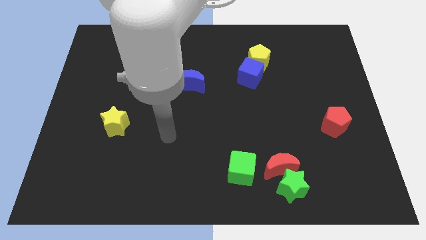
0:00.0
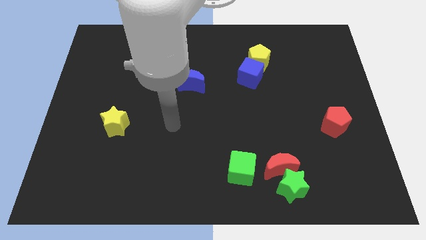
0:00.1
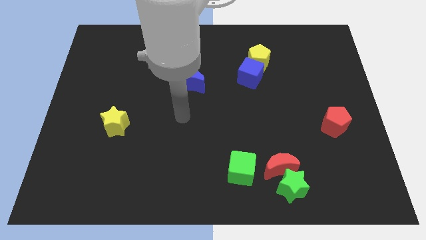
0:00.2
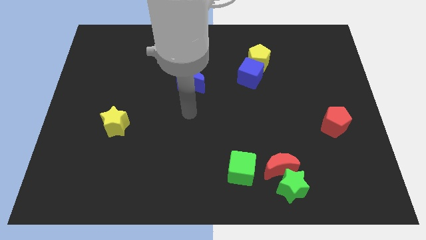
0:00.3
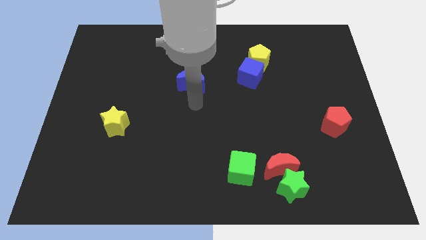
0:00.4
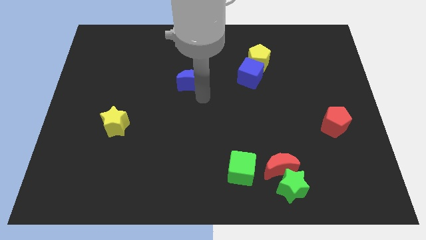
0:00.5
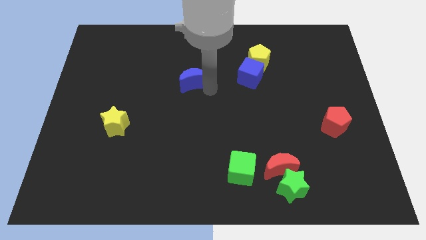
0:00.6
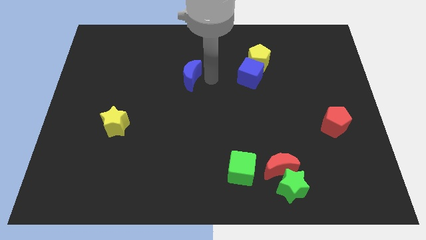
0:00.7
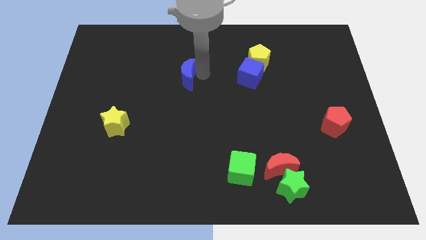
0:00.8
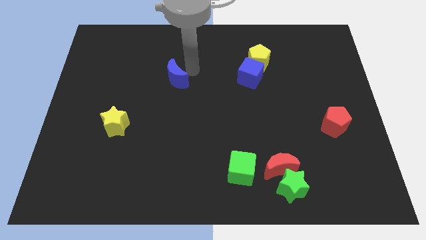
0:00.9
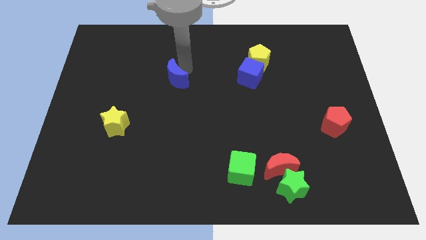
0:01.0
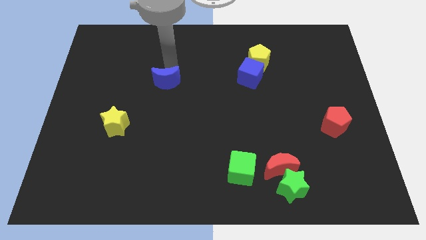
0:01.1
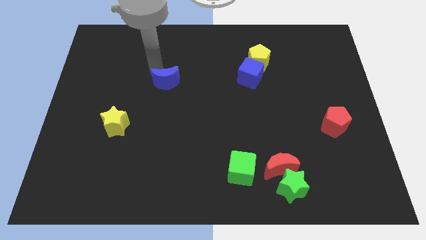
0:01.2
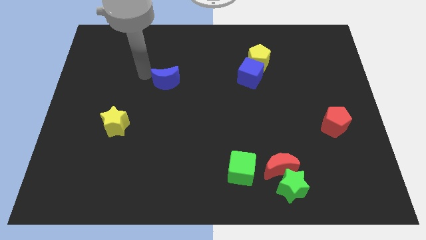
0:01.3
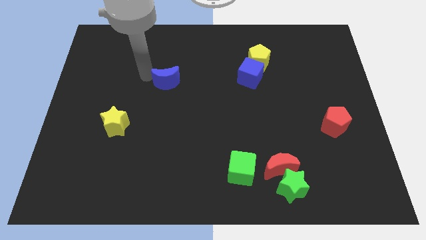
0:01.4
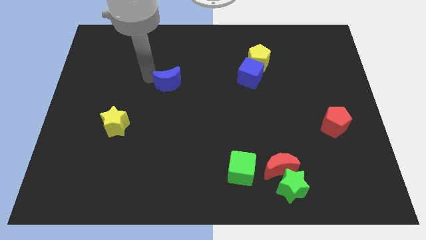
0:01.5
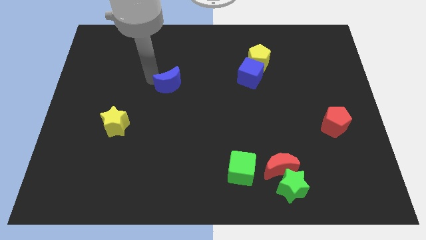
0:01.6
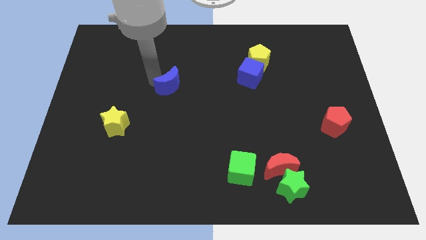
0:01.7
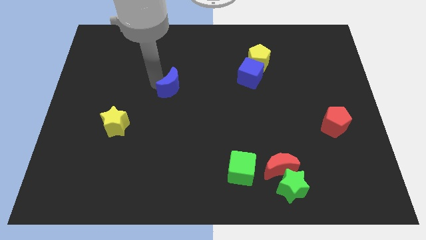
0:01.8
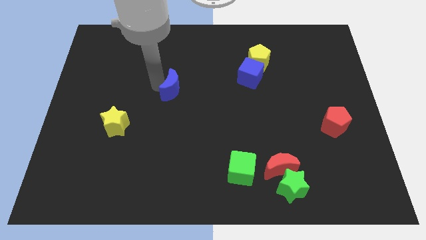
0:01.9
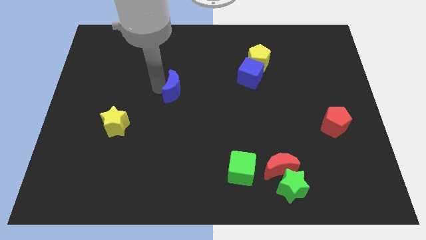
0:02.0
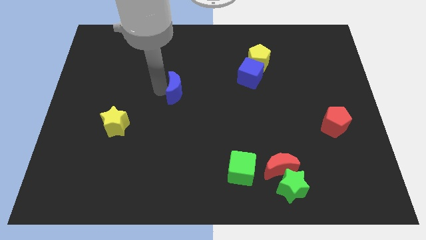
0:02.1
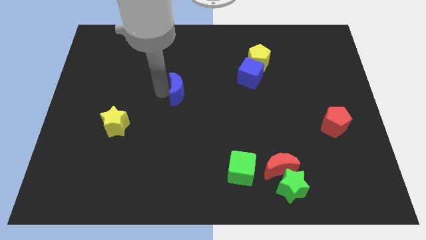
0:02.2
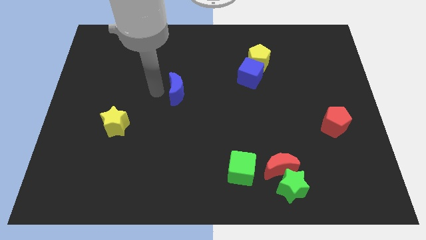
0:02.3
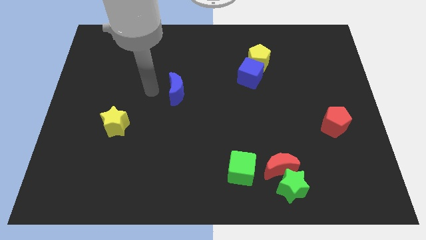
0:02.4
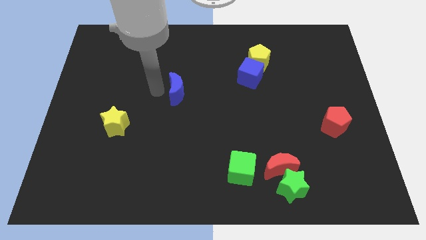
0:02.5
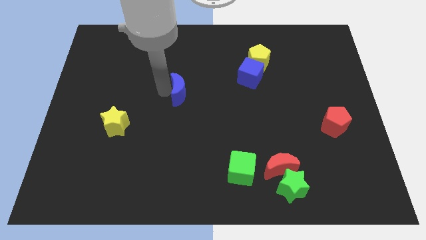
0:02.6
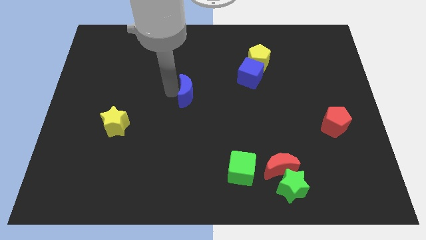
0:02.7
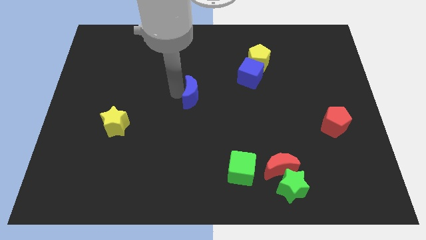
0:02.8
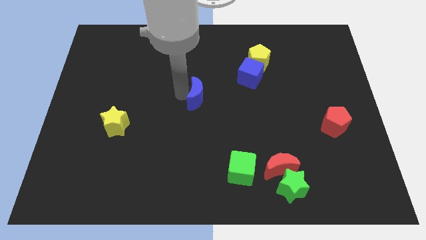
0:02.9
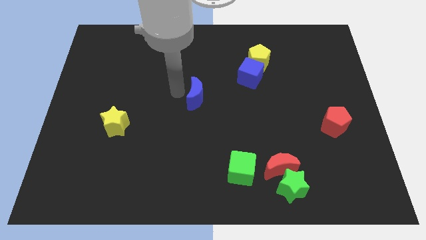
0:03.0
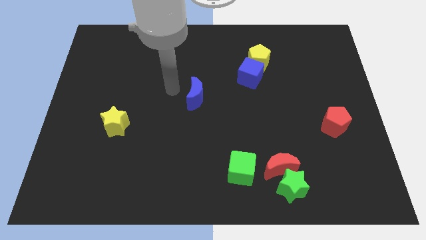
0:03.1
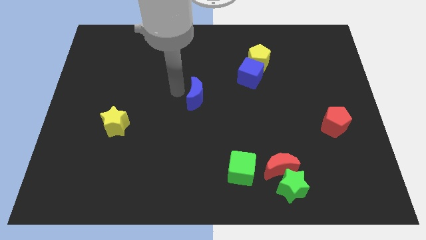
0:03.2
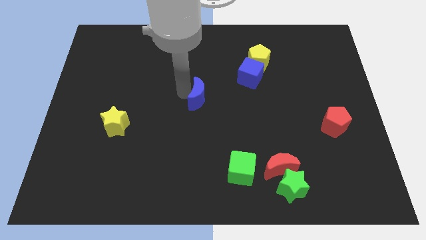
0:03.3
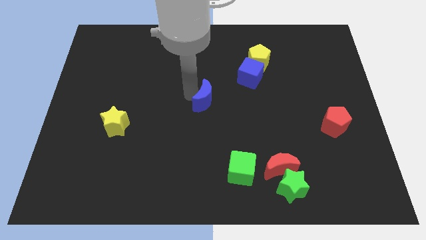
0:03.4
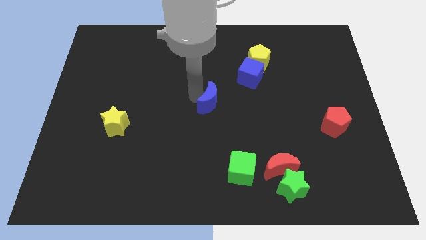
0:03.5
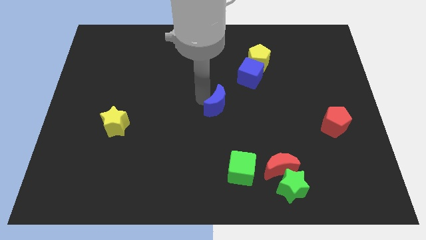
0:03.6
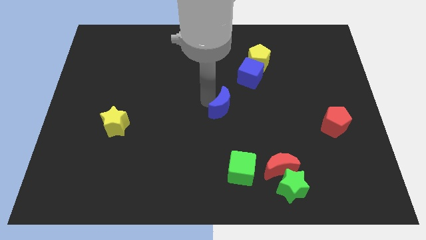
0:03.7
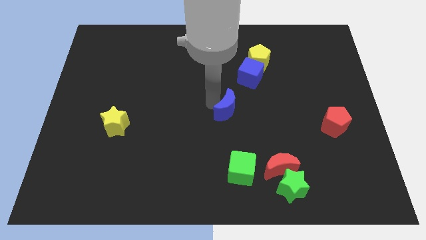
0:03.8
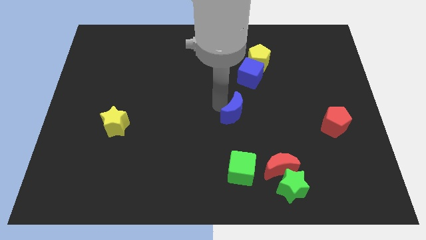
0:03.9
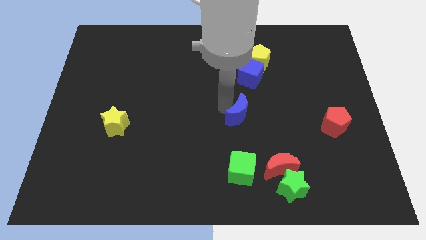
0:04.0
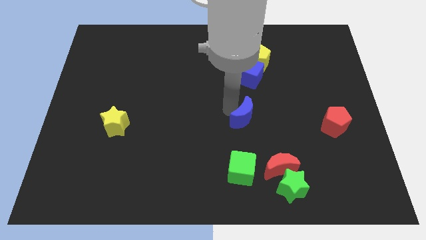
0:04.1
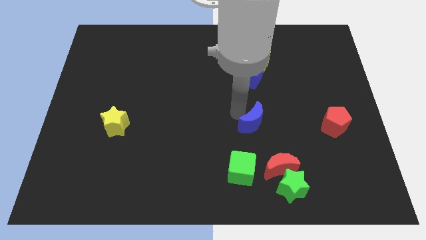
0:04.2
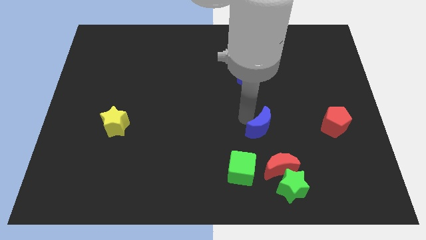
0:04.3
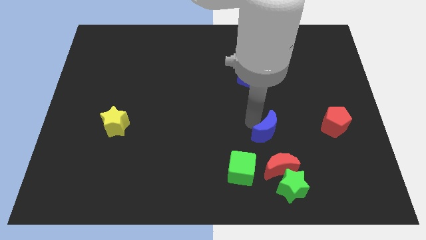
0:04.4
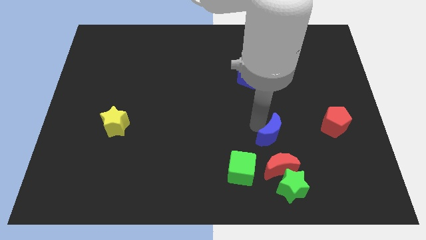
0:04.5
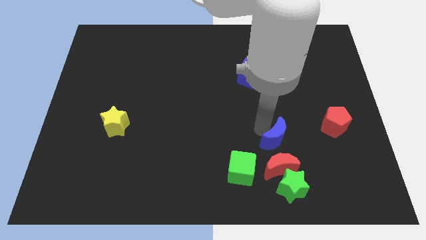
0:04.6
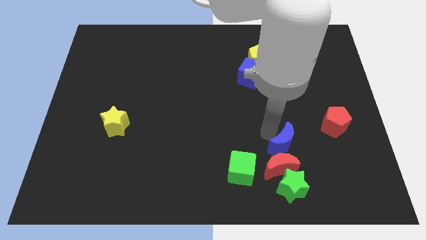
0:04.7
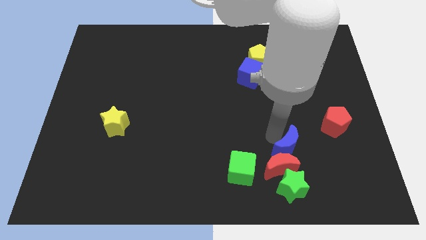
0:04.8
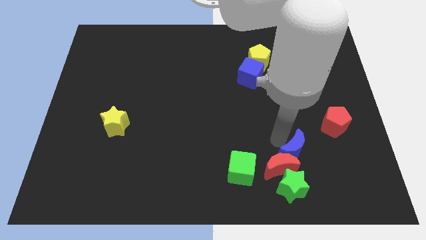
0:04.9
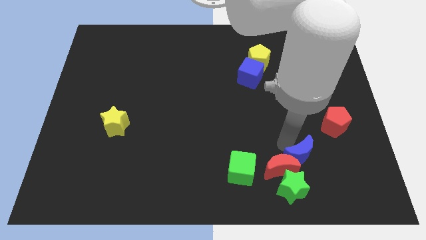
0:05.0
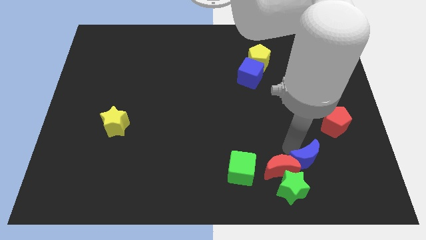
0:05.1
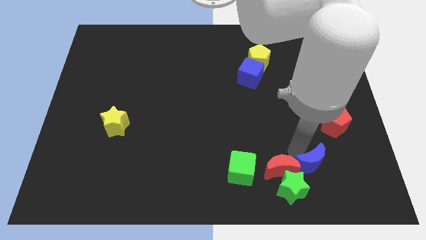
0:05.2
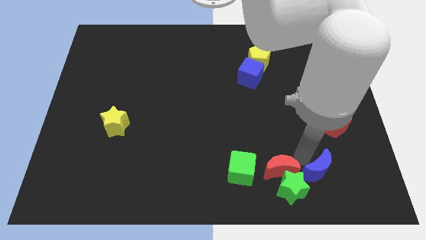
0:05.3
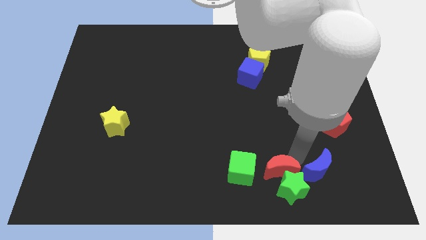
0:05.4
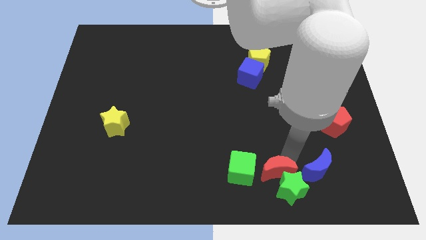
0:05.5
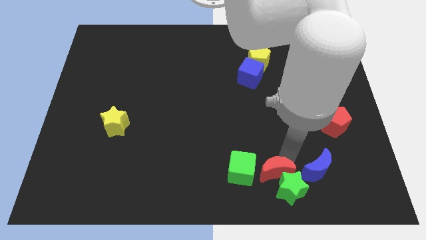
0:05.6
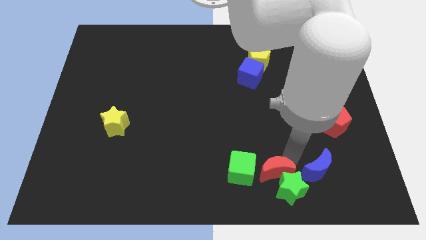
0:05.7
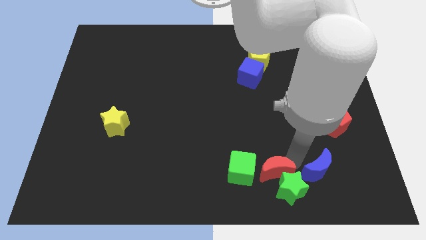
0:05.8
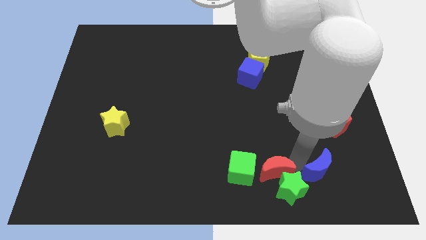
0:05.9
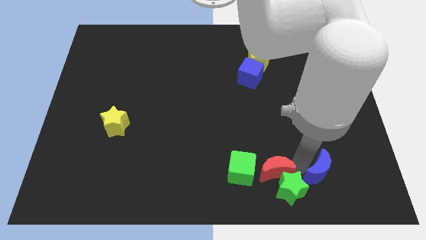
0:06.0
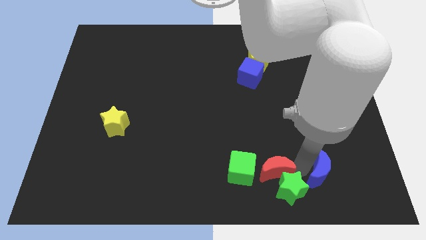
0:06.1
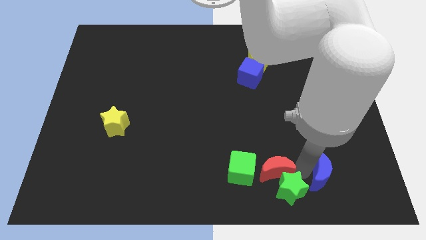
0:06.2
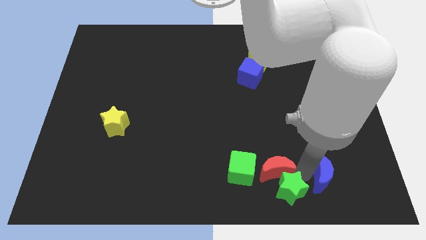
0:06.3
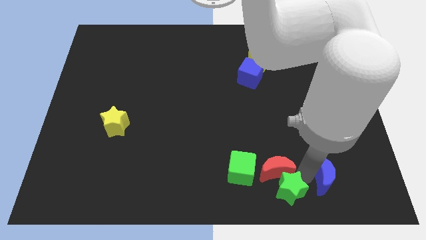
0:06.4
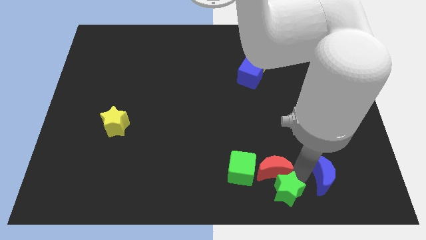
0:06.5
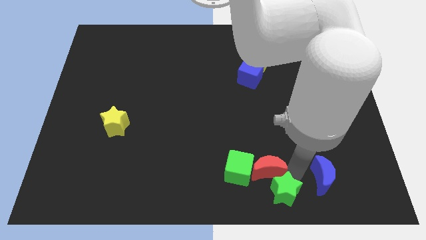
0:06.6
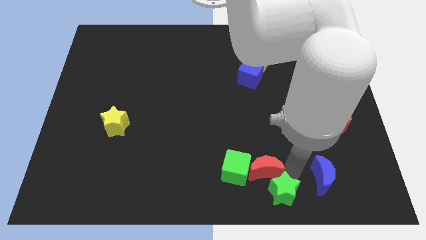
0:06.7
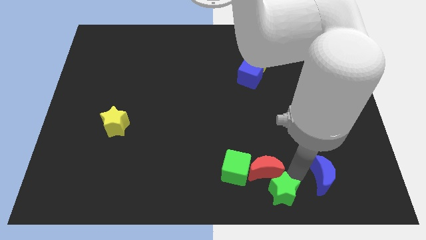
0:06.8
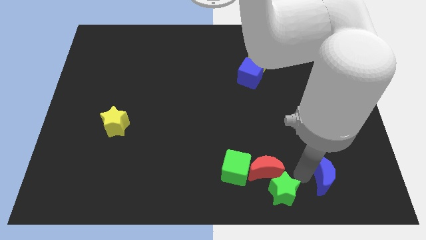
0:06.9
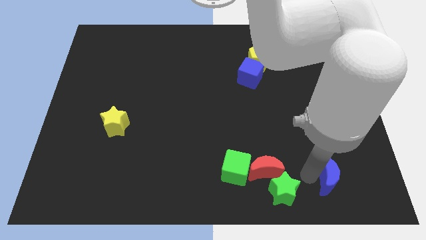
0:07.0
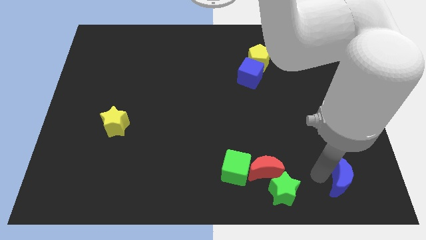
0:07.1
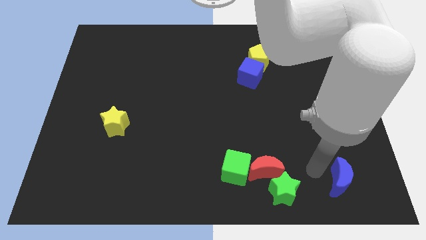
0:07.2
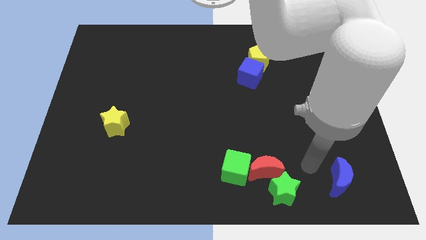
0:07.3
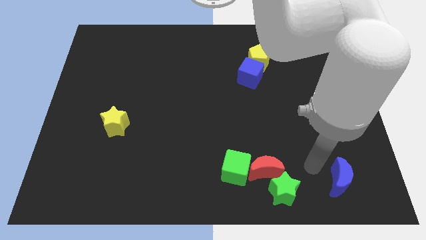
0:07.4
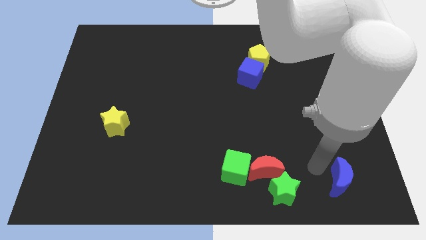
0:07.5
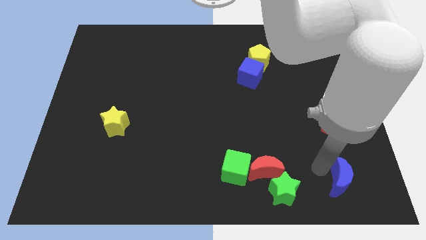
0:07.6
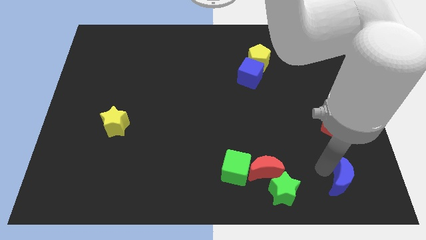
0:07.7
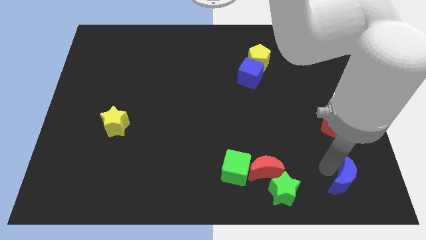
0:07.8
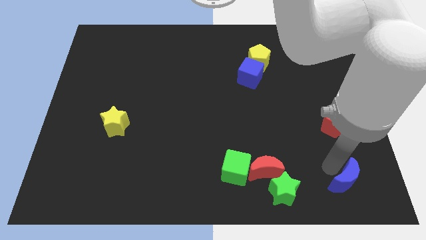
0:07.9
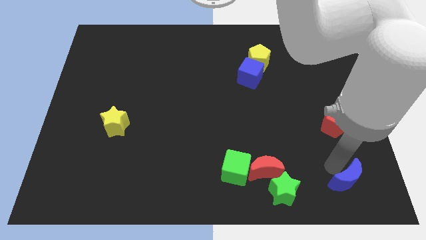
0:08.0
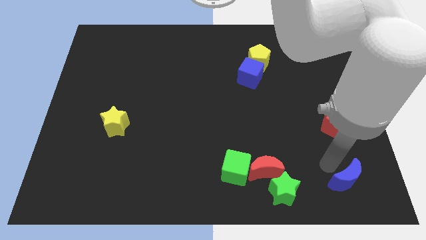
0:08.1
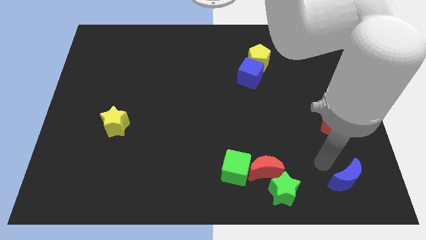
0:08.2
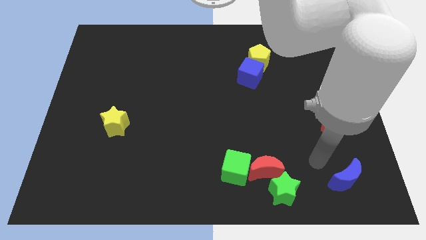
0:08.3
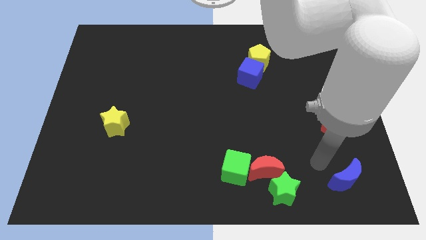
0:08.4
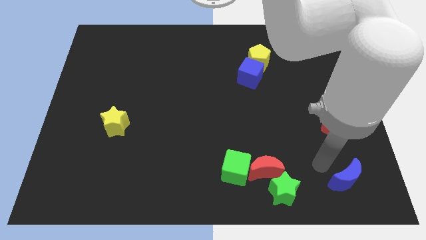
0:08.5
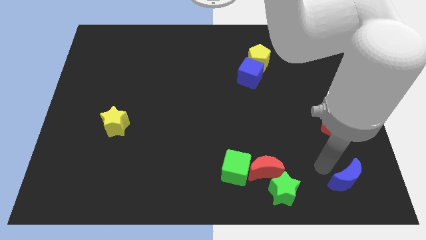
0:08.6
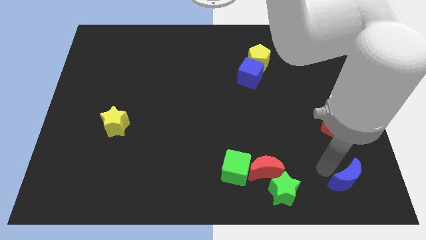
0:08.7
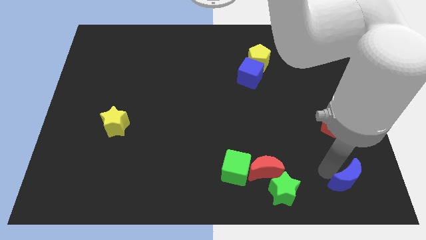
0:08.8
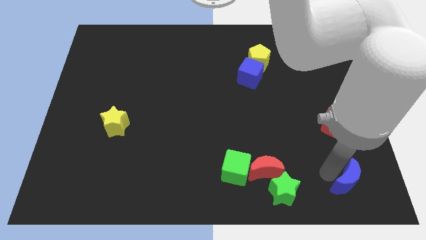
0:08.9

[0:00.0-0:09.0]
move the blue moon to the bottom right corner
